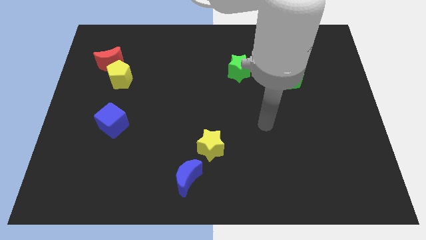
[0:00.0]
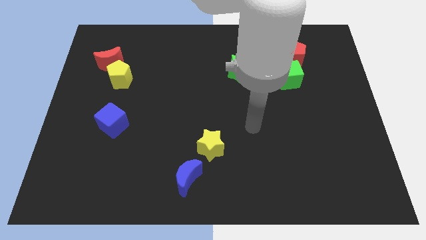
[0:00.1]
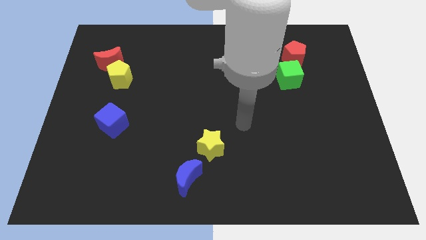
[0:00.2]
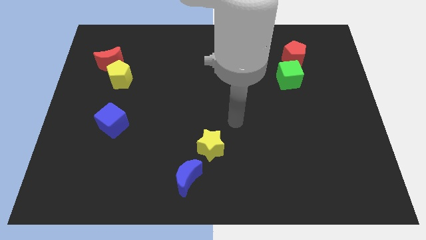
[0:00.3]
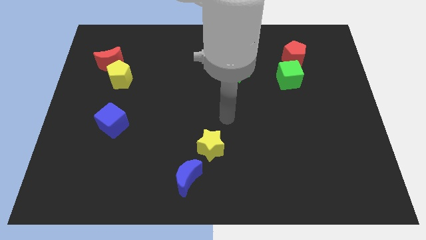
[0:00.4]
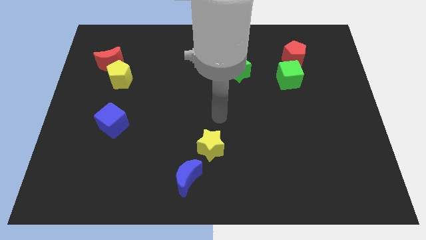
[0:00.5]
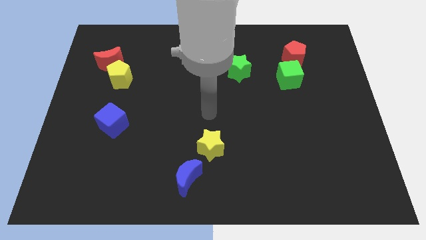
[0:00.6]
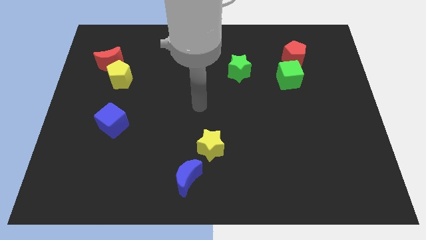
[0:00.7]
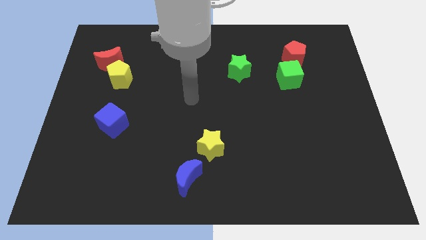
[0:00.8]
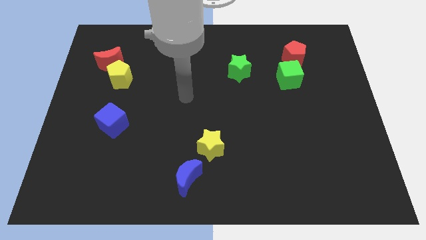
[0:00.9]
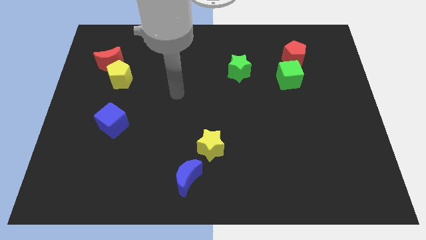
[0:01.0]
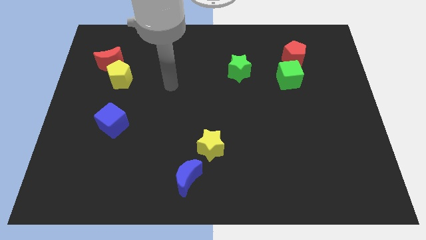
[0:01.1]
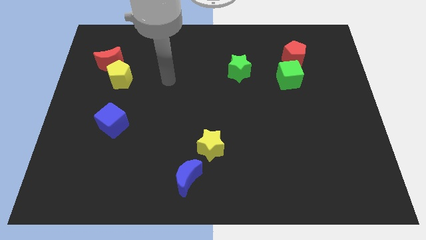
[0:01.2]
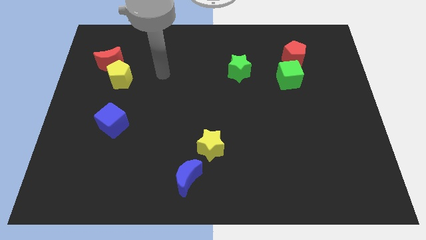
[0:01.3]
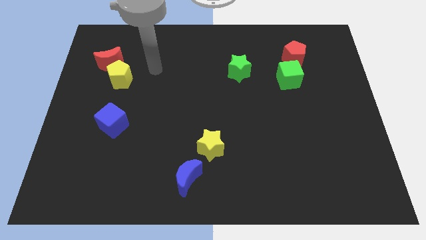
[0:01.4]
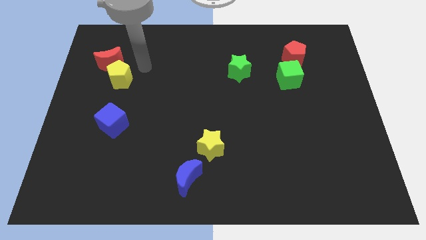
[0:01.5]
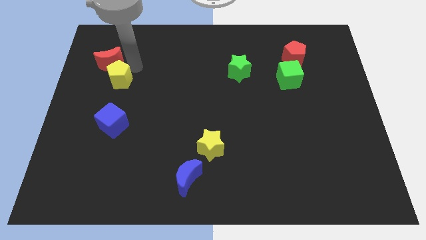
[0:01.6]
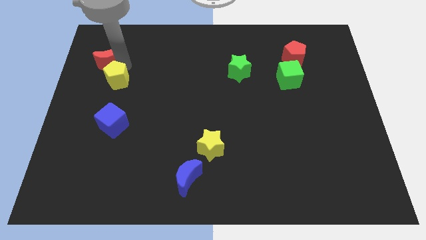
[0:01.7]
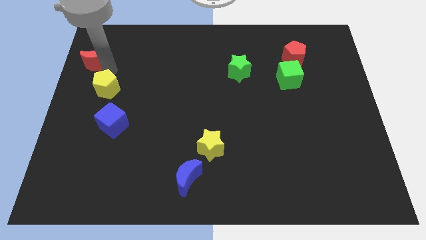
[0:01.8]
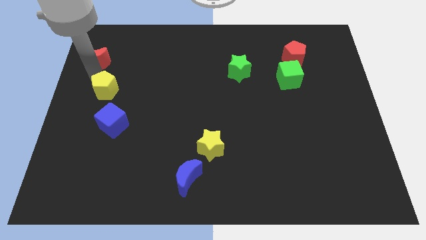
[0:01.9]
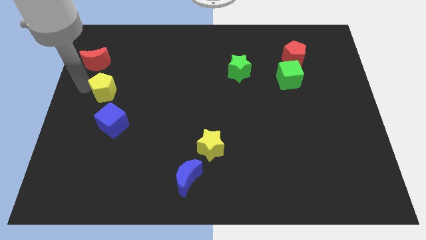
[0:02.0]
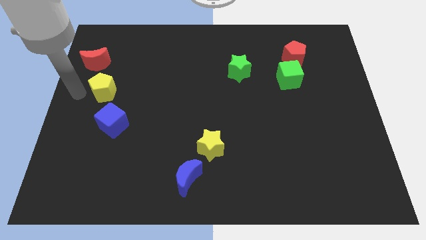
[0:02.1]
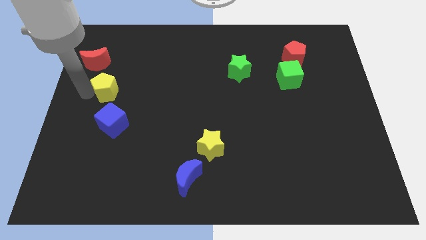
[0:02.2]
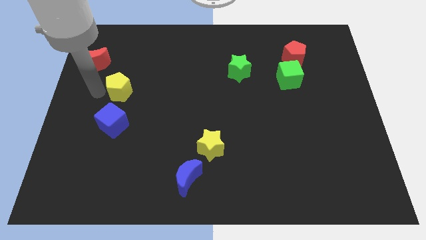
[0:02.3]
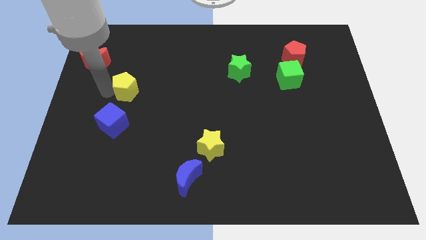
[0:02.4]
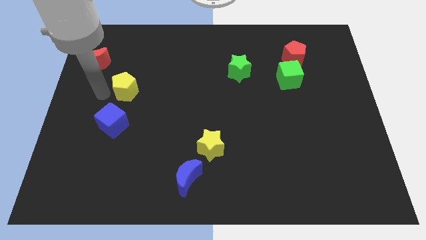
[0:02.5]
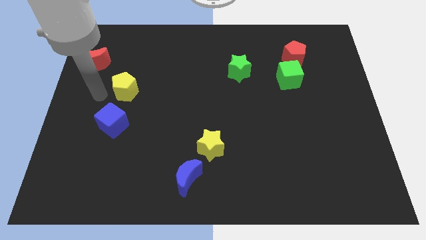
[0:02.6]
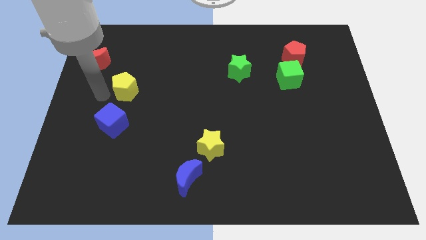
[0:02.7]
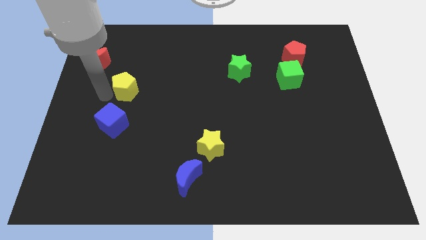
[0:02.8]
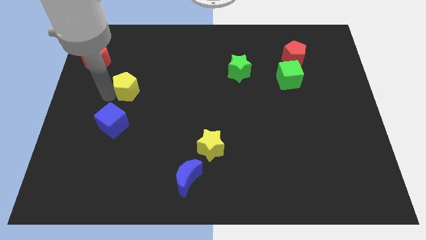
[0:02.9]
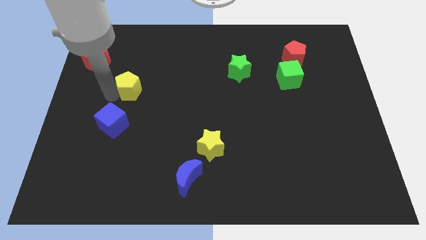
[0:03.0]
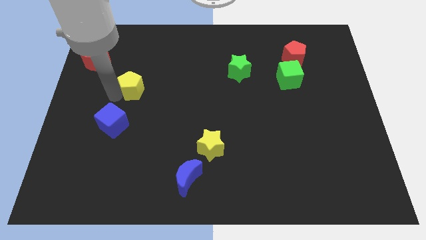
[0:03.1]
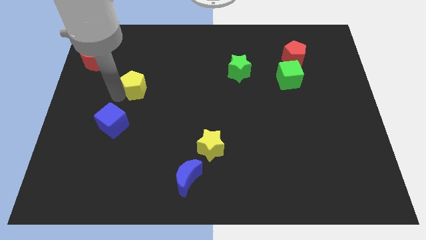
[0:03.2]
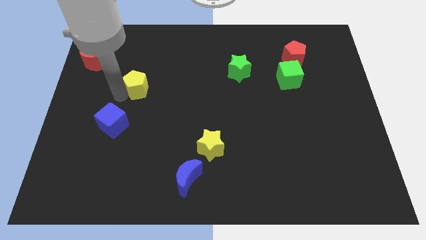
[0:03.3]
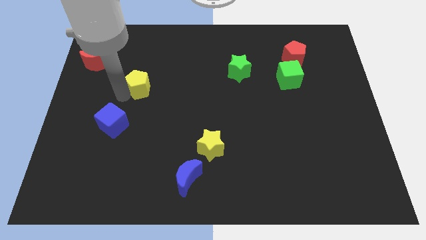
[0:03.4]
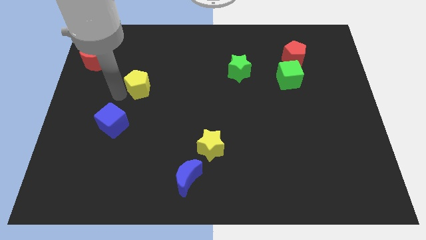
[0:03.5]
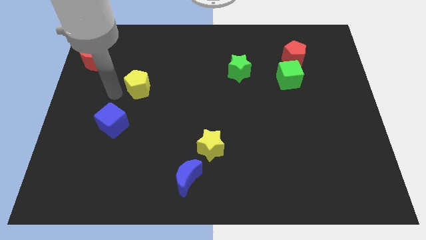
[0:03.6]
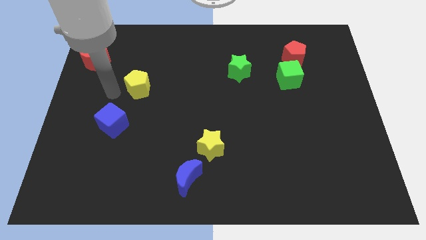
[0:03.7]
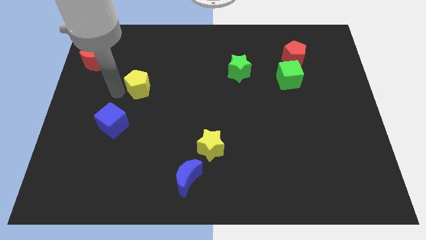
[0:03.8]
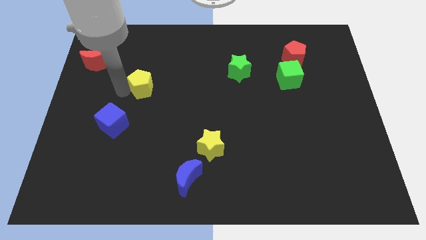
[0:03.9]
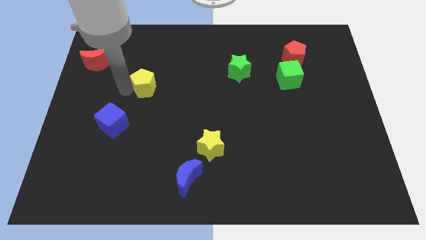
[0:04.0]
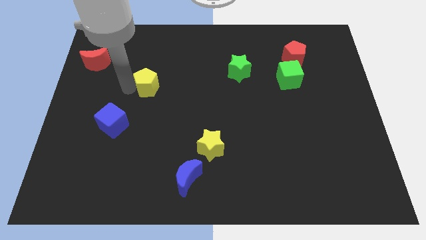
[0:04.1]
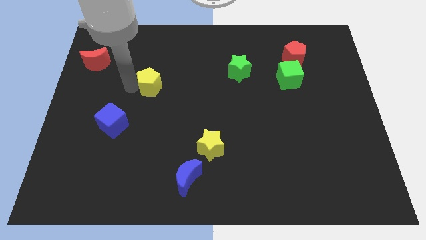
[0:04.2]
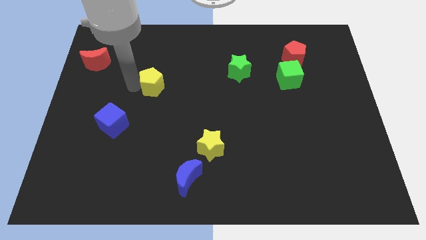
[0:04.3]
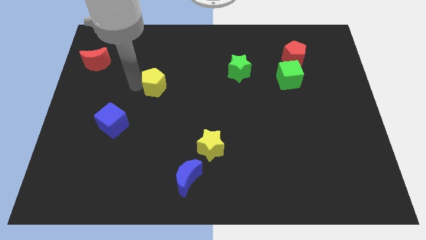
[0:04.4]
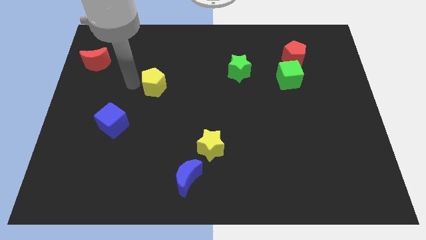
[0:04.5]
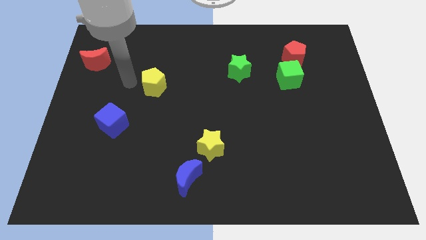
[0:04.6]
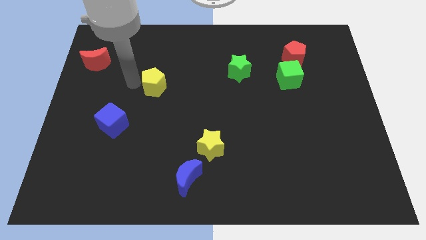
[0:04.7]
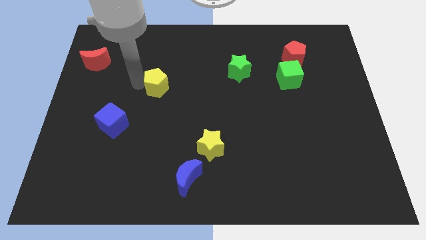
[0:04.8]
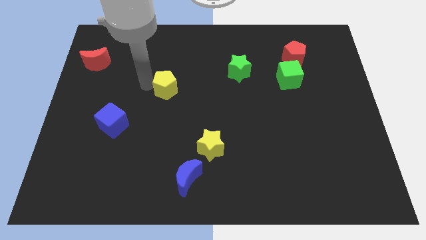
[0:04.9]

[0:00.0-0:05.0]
slide the yellow pentagon to the center

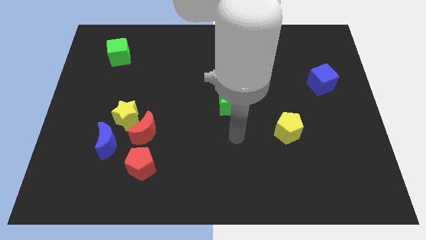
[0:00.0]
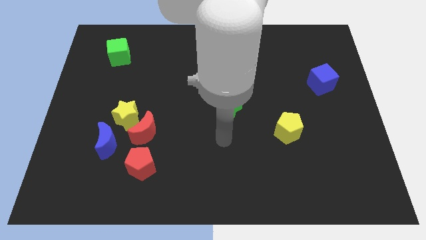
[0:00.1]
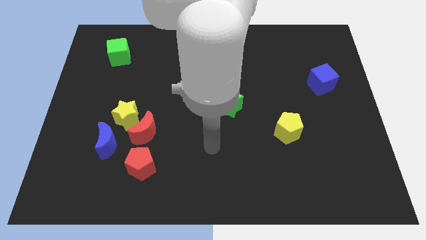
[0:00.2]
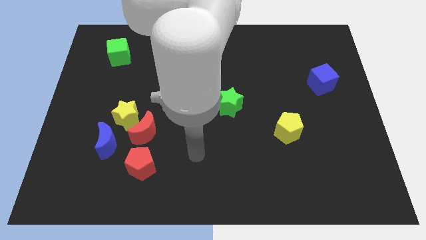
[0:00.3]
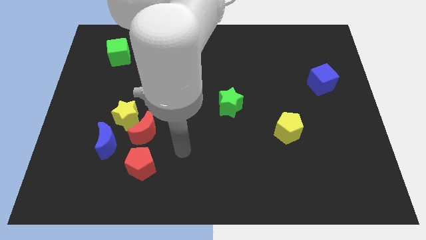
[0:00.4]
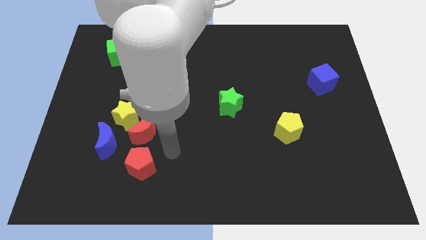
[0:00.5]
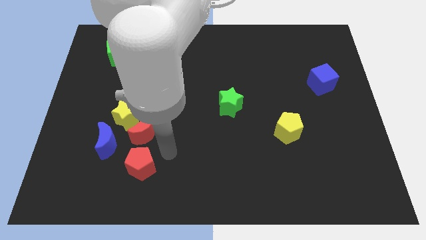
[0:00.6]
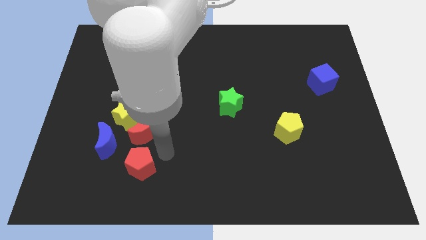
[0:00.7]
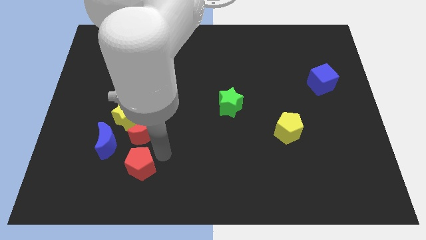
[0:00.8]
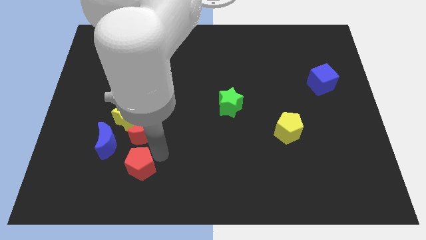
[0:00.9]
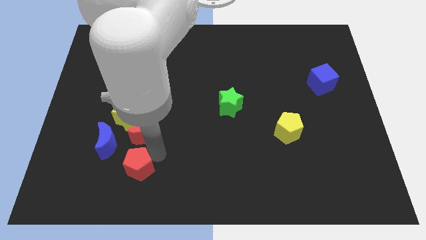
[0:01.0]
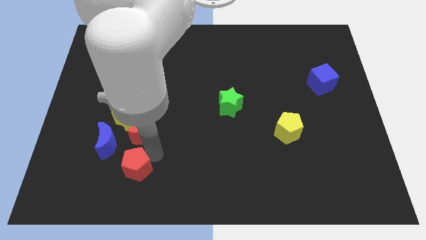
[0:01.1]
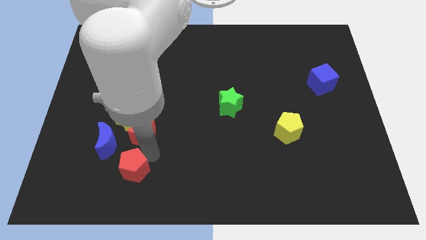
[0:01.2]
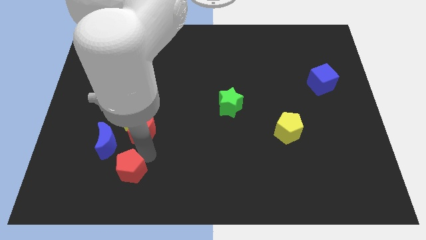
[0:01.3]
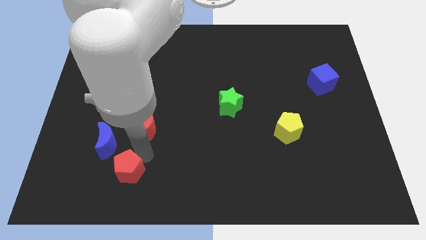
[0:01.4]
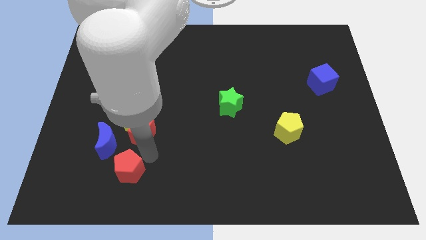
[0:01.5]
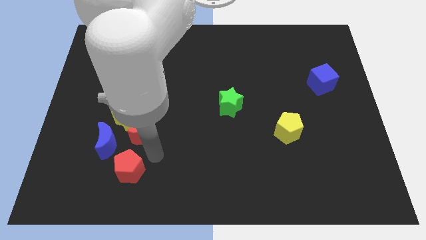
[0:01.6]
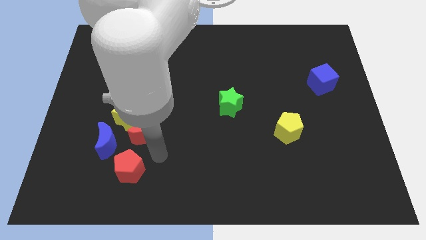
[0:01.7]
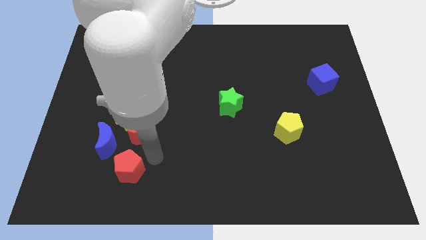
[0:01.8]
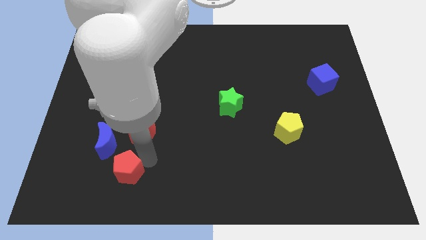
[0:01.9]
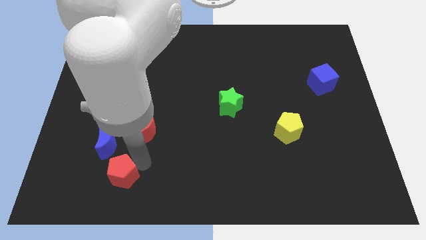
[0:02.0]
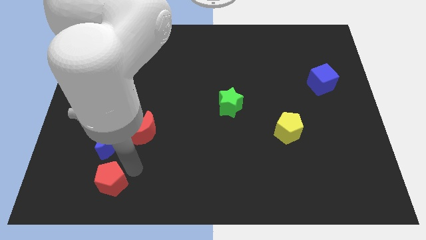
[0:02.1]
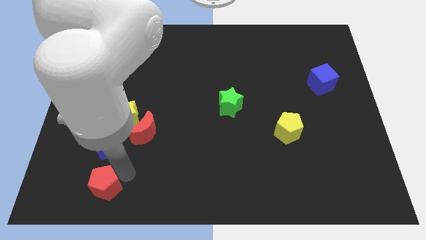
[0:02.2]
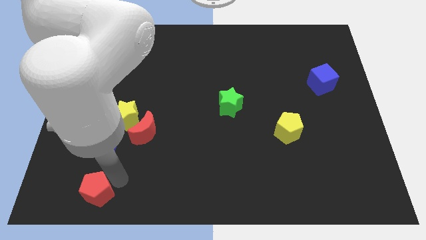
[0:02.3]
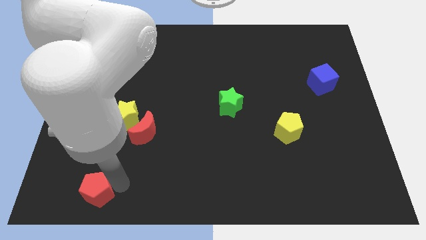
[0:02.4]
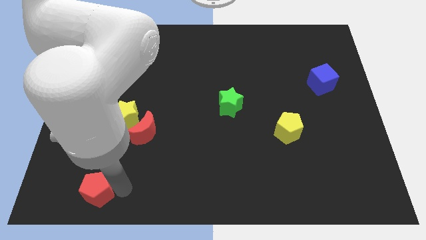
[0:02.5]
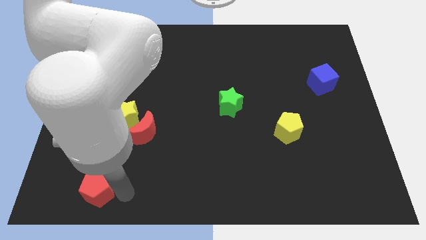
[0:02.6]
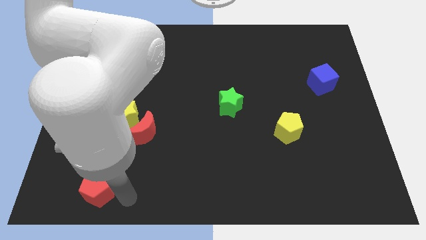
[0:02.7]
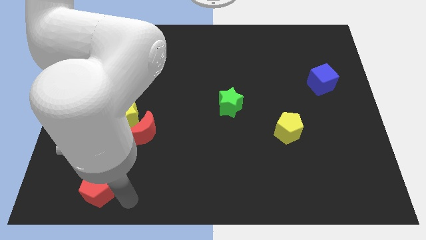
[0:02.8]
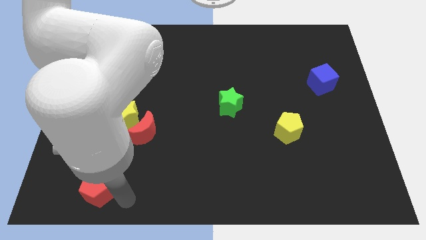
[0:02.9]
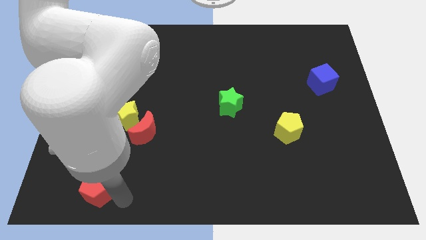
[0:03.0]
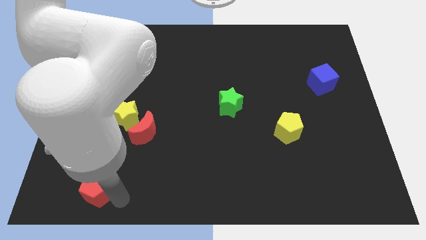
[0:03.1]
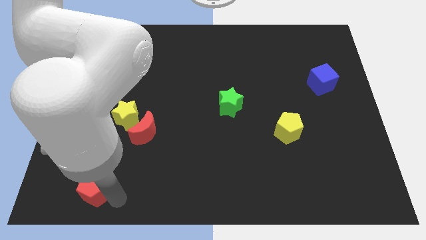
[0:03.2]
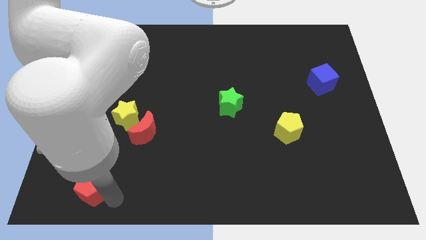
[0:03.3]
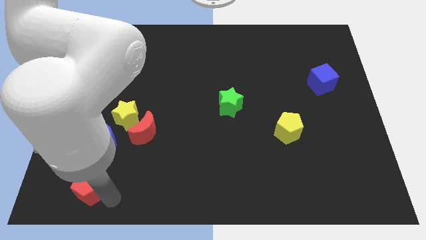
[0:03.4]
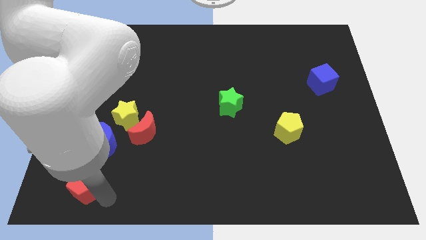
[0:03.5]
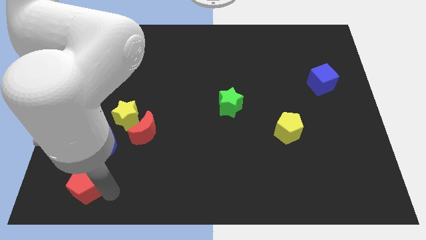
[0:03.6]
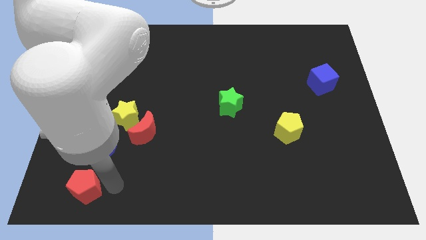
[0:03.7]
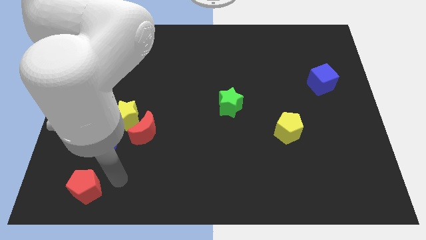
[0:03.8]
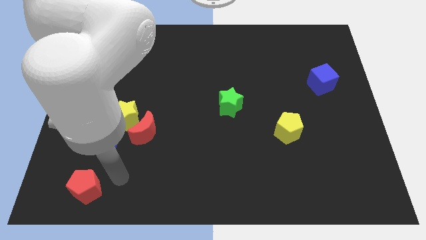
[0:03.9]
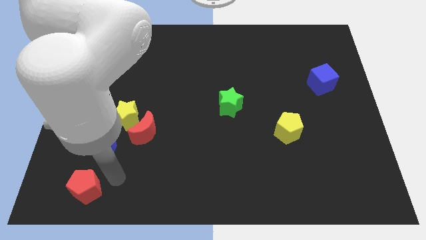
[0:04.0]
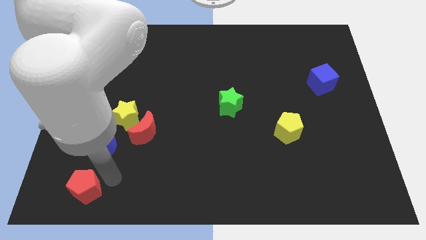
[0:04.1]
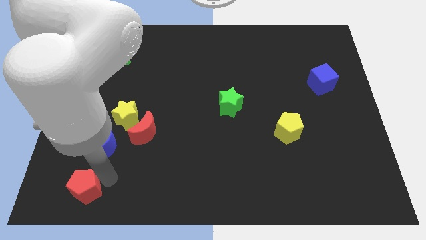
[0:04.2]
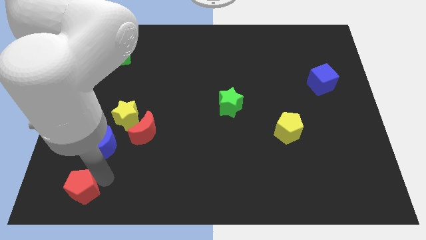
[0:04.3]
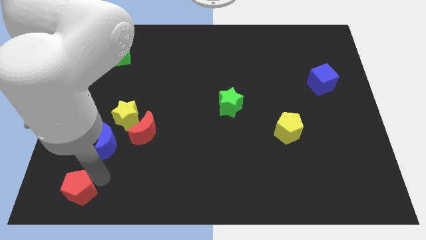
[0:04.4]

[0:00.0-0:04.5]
slide the red pentagon to the lower left corner
